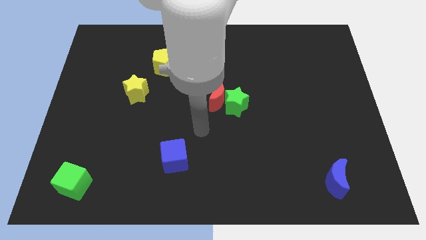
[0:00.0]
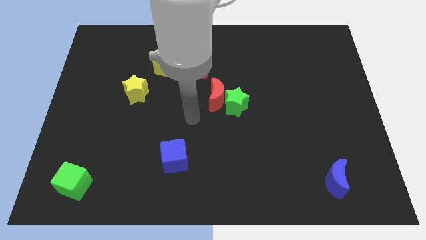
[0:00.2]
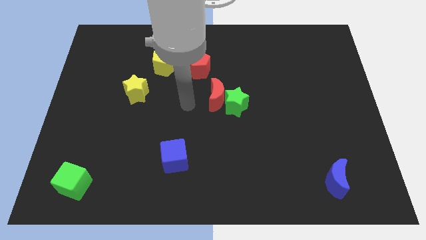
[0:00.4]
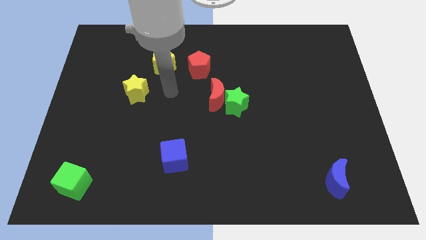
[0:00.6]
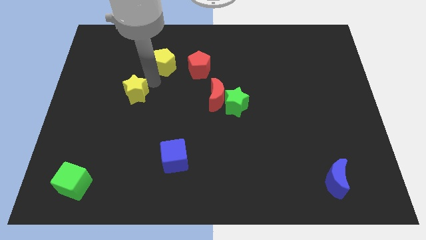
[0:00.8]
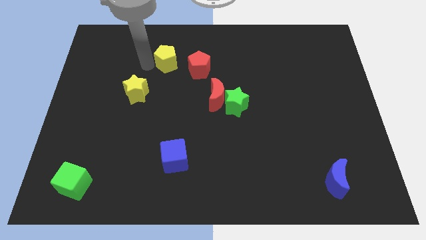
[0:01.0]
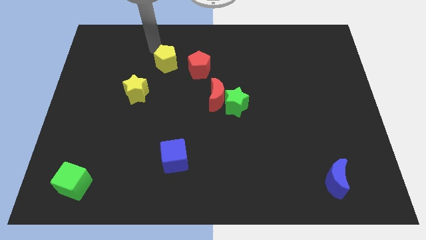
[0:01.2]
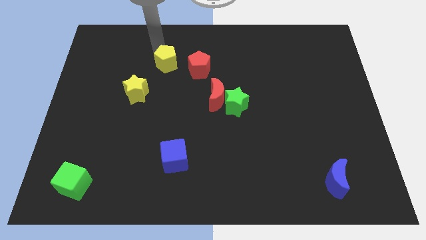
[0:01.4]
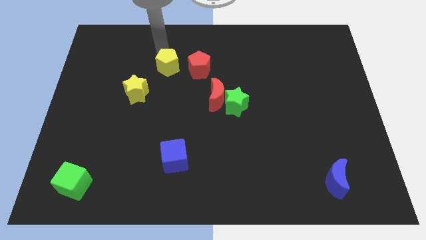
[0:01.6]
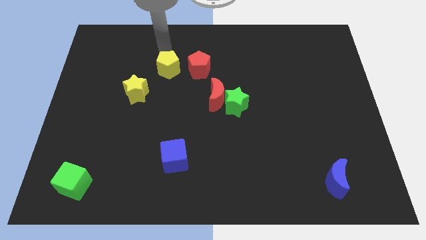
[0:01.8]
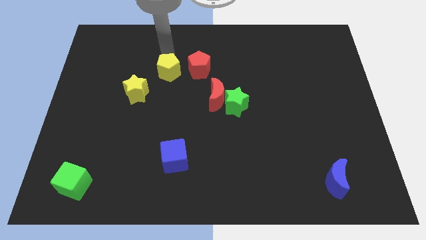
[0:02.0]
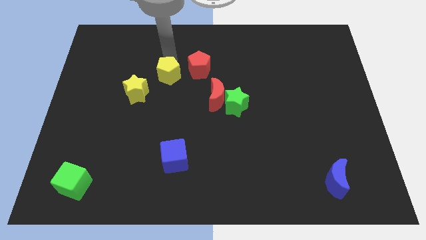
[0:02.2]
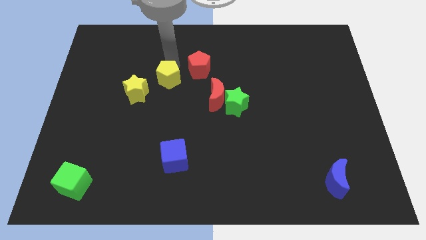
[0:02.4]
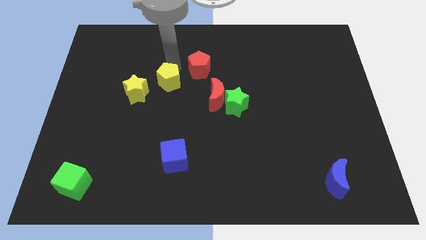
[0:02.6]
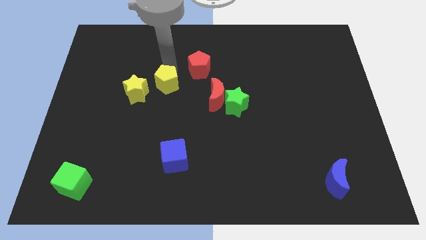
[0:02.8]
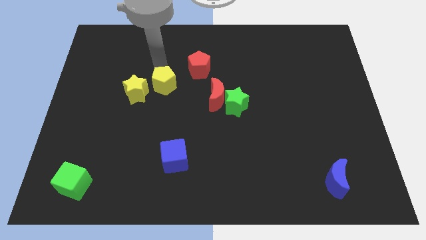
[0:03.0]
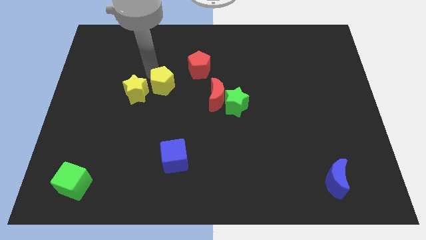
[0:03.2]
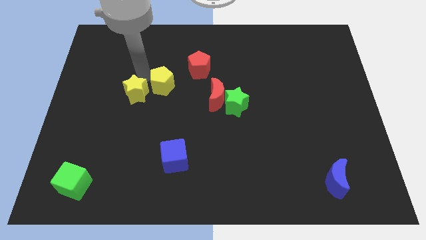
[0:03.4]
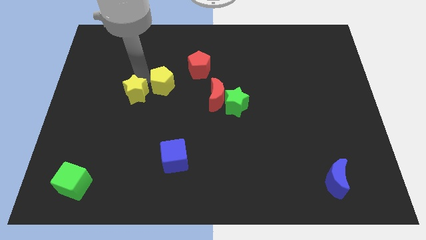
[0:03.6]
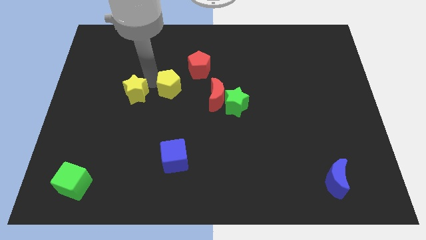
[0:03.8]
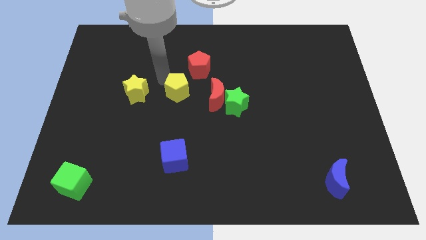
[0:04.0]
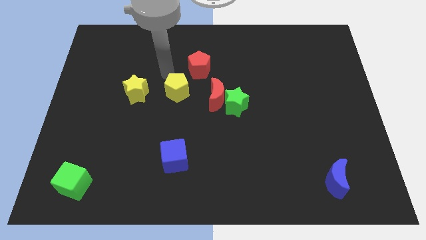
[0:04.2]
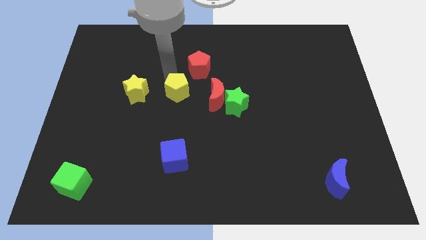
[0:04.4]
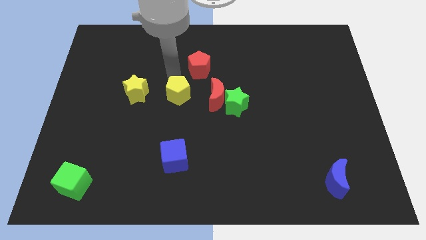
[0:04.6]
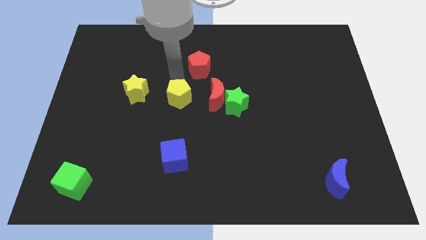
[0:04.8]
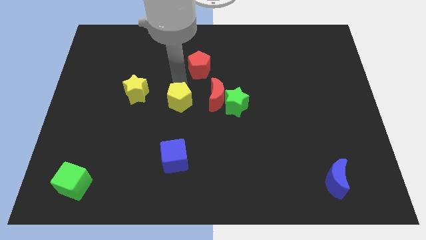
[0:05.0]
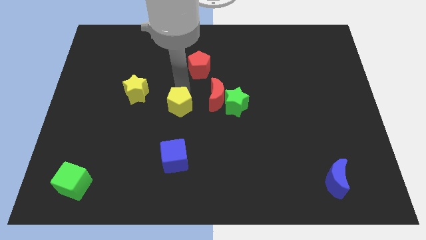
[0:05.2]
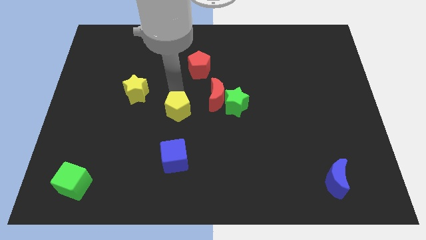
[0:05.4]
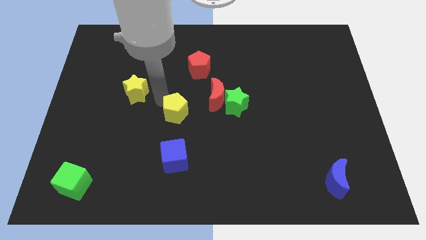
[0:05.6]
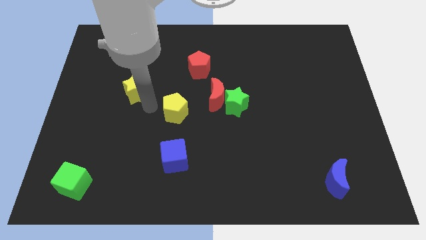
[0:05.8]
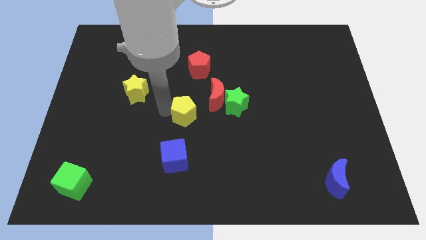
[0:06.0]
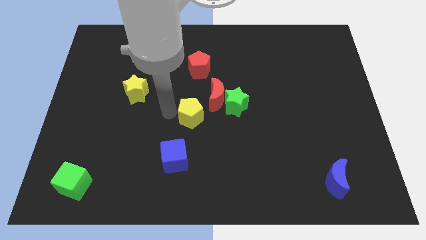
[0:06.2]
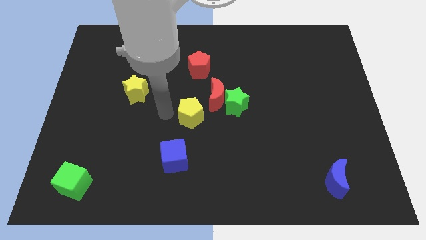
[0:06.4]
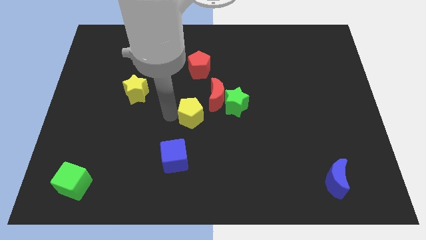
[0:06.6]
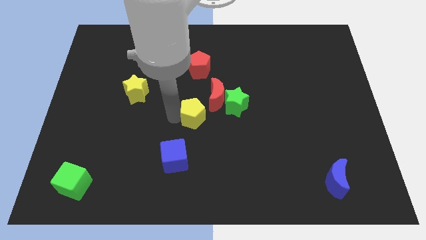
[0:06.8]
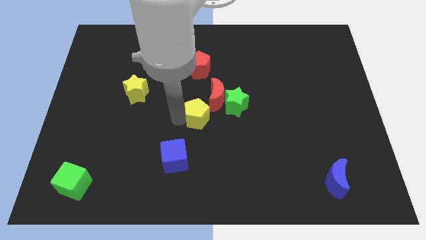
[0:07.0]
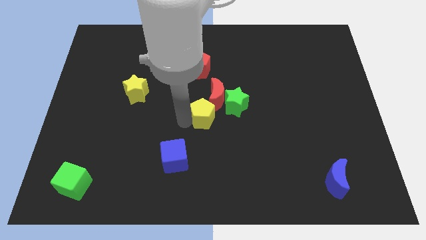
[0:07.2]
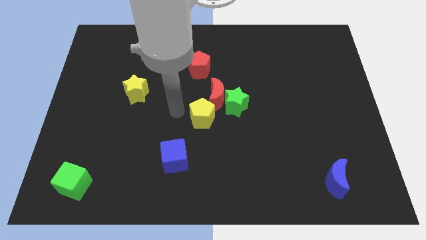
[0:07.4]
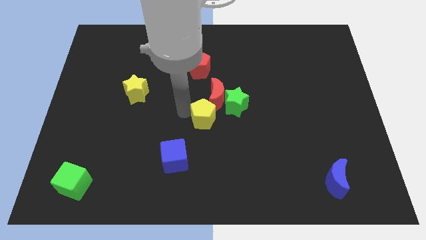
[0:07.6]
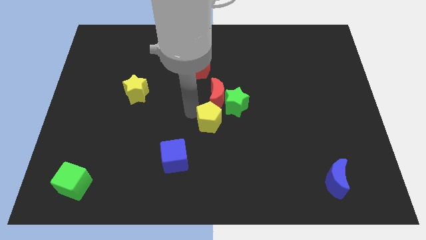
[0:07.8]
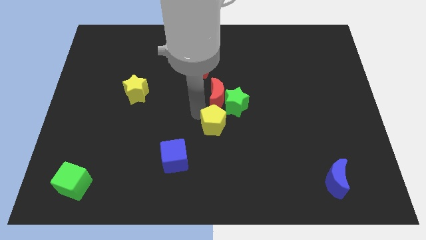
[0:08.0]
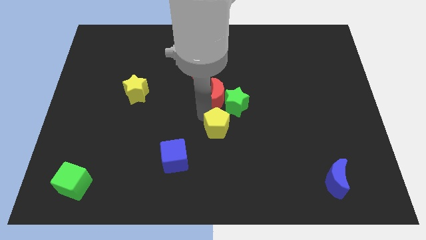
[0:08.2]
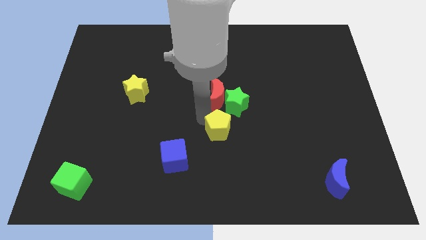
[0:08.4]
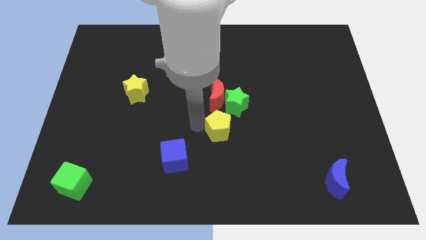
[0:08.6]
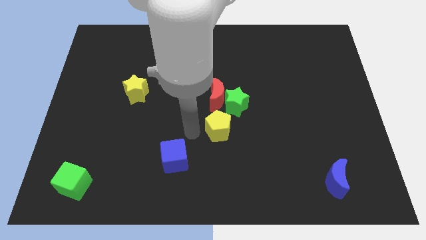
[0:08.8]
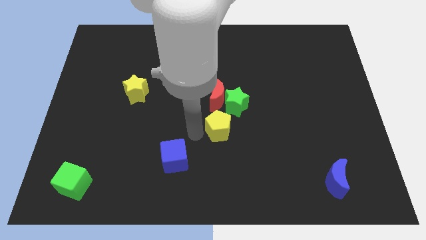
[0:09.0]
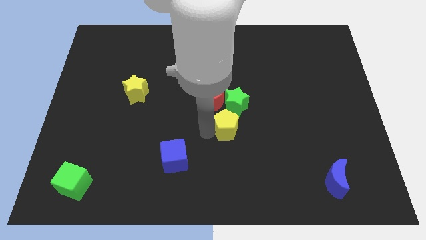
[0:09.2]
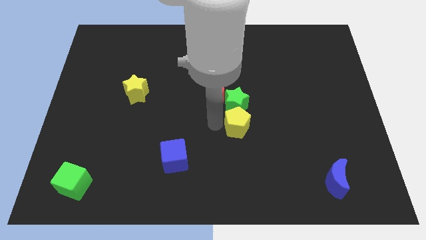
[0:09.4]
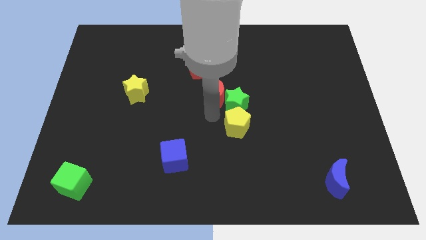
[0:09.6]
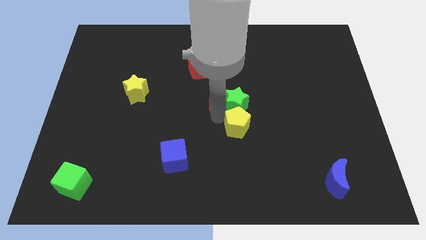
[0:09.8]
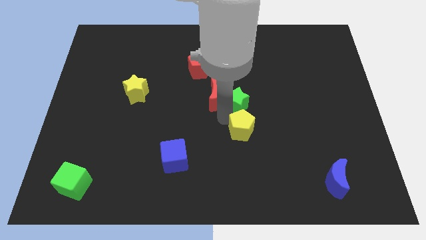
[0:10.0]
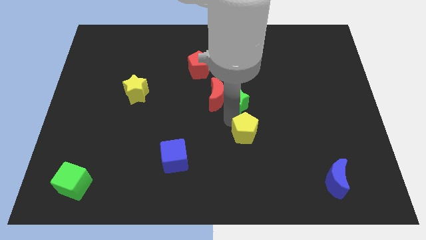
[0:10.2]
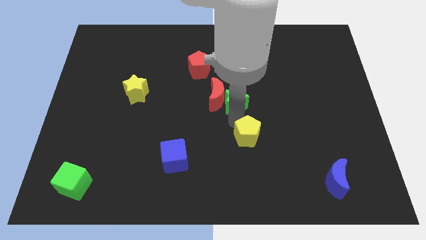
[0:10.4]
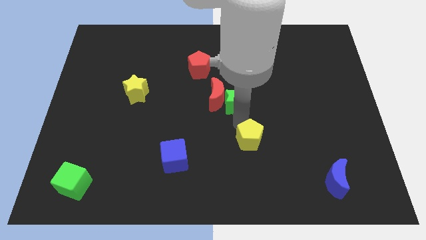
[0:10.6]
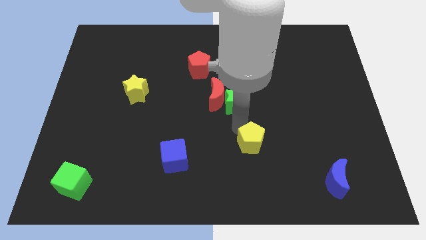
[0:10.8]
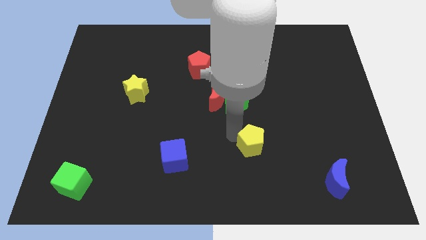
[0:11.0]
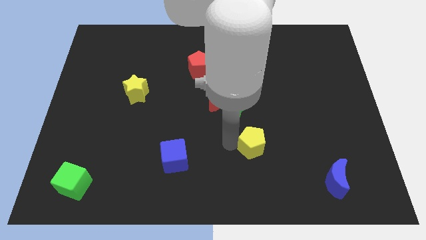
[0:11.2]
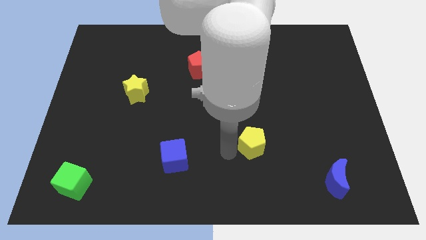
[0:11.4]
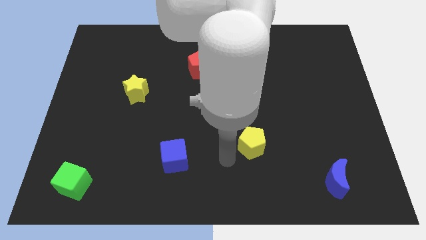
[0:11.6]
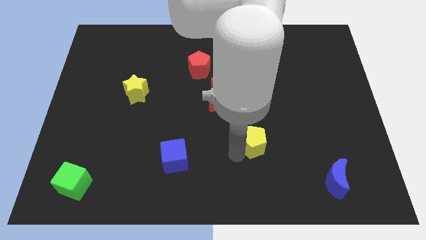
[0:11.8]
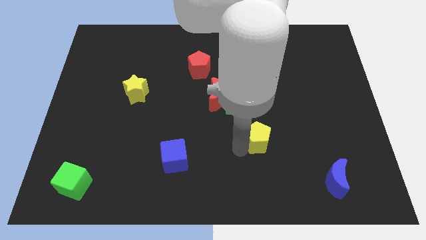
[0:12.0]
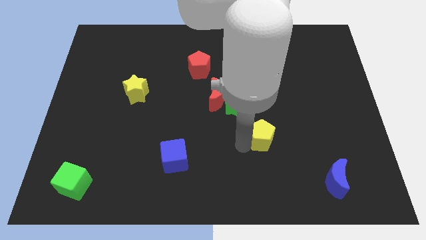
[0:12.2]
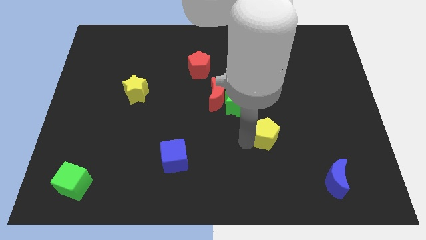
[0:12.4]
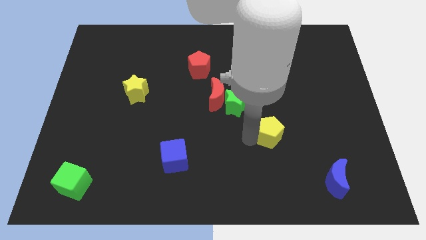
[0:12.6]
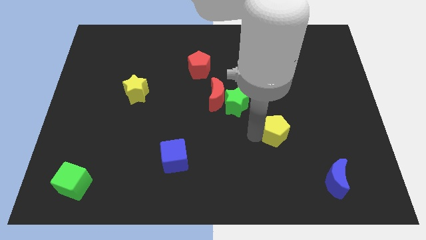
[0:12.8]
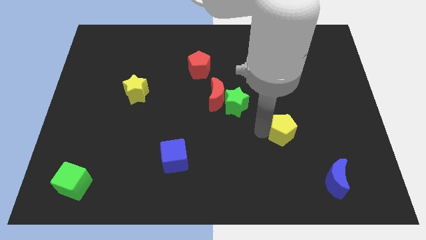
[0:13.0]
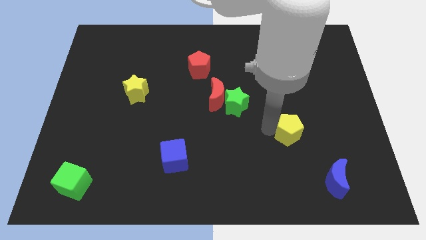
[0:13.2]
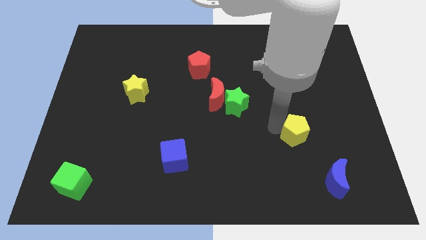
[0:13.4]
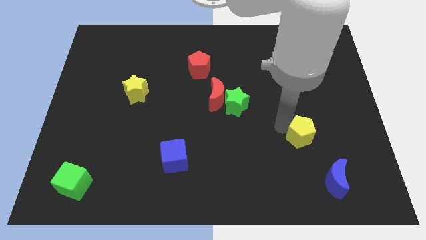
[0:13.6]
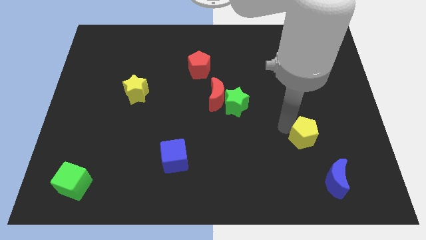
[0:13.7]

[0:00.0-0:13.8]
put the yellow pentagon diagonally up and to the left of the blue moon
